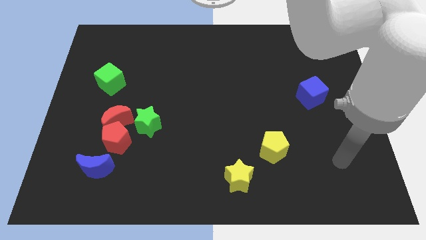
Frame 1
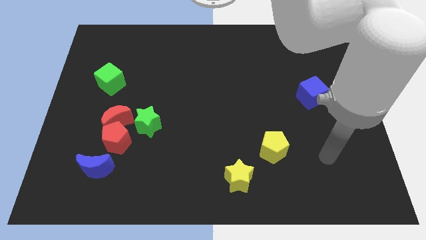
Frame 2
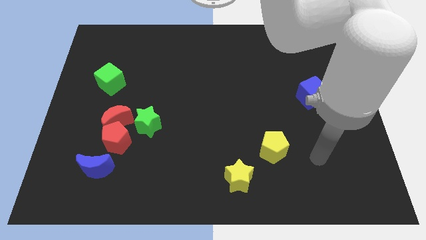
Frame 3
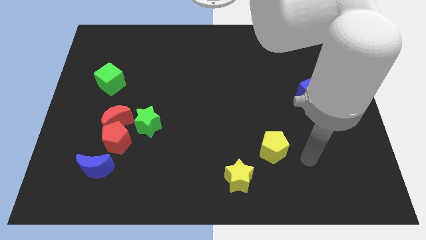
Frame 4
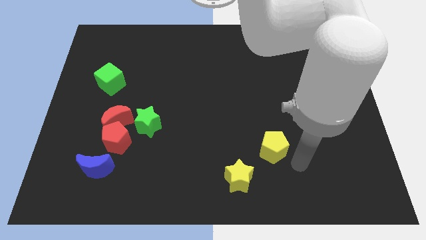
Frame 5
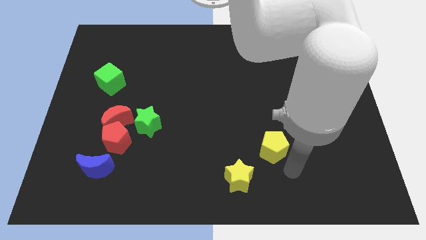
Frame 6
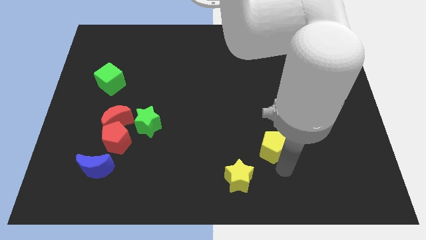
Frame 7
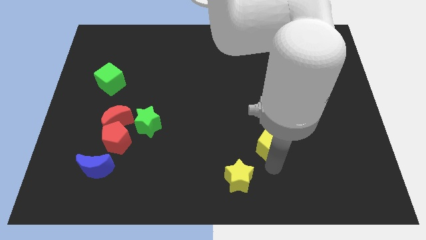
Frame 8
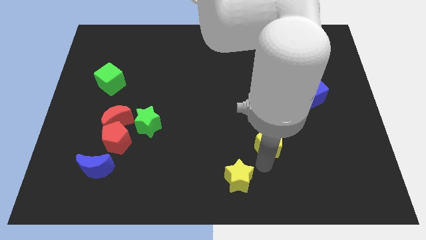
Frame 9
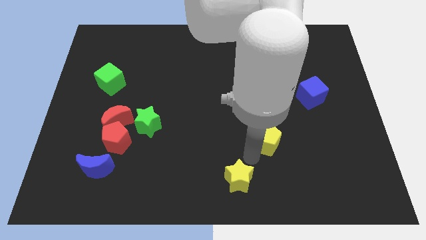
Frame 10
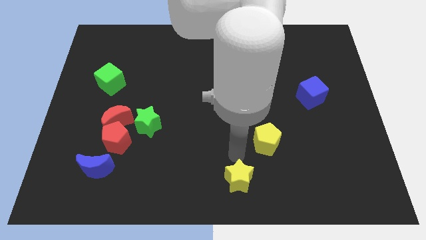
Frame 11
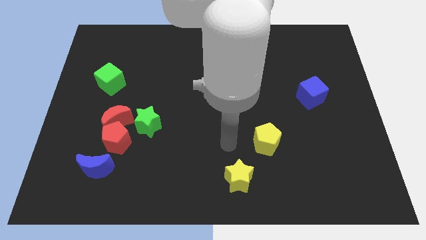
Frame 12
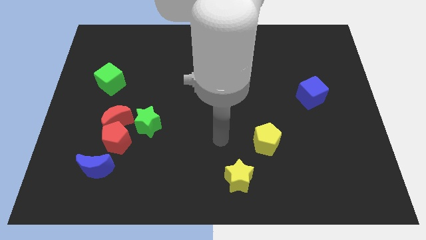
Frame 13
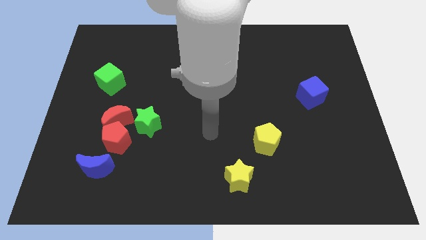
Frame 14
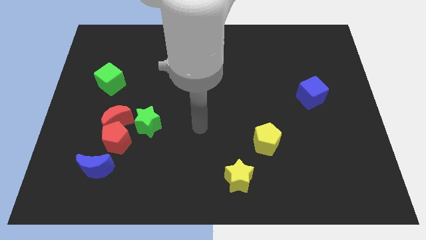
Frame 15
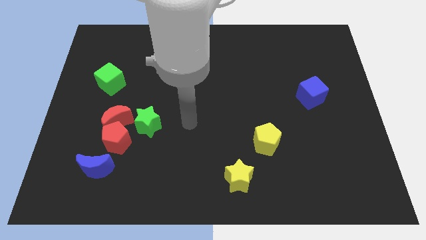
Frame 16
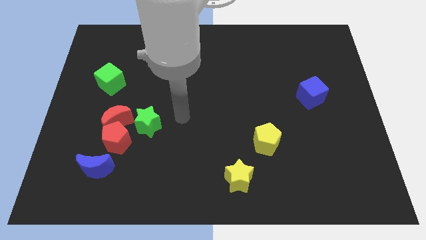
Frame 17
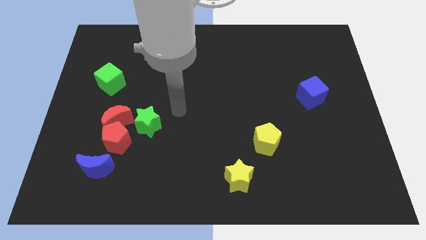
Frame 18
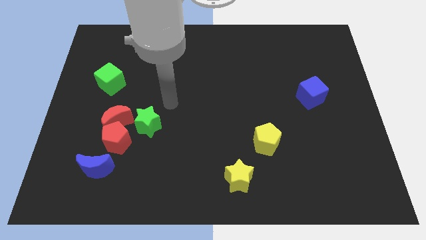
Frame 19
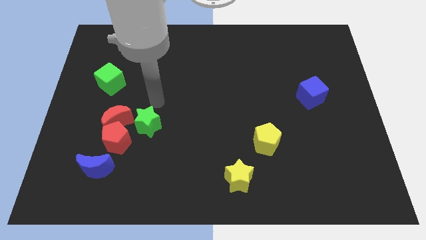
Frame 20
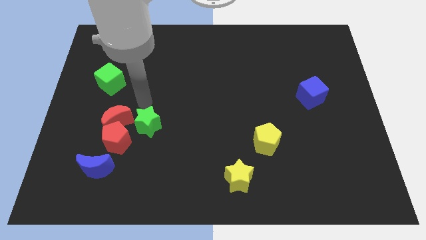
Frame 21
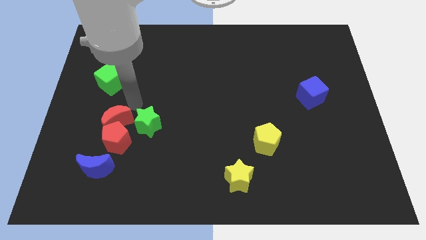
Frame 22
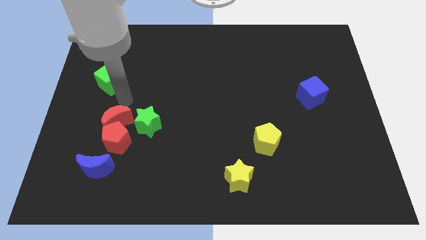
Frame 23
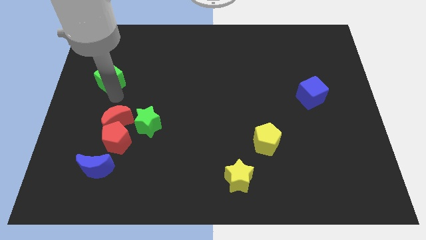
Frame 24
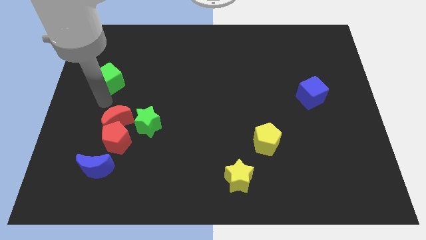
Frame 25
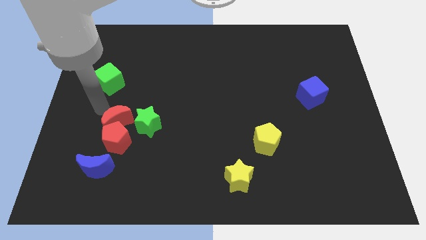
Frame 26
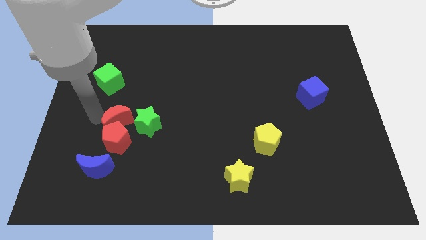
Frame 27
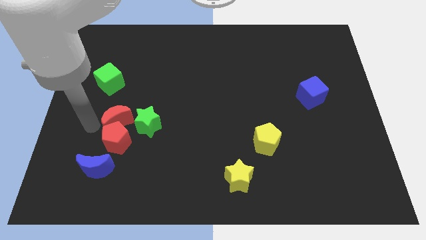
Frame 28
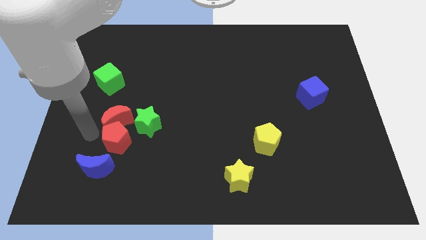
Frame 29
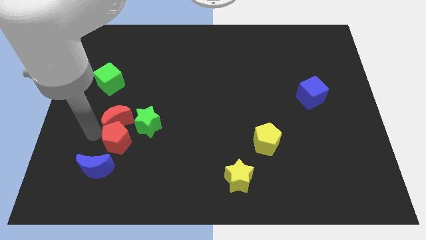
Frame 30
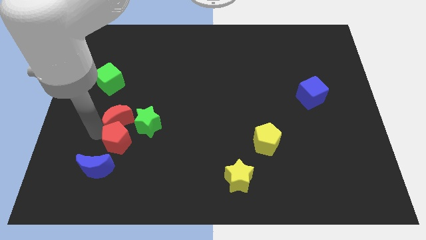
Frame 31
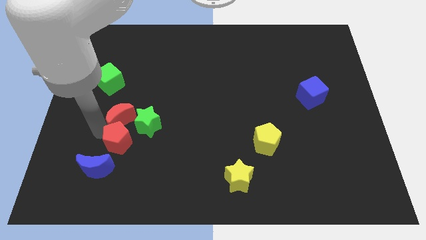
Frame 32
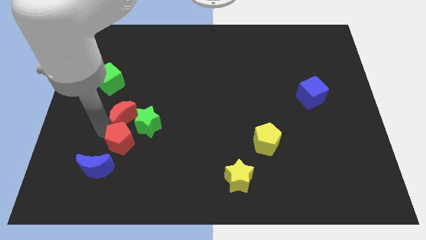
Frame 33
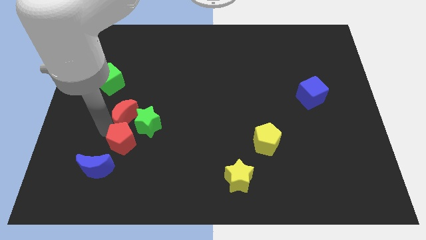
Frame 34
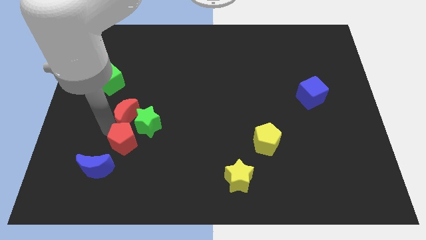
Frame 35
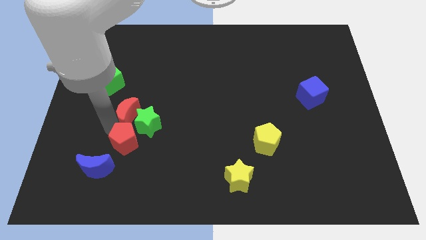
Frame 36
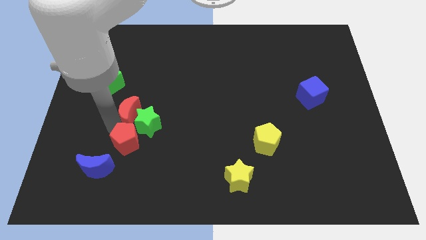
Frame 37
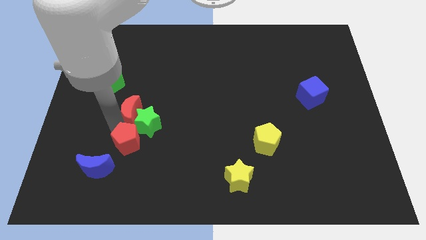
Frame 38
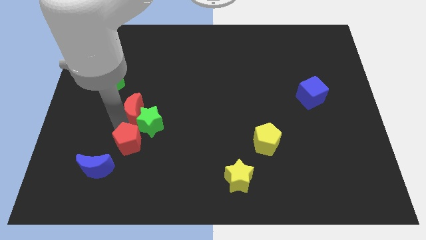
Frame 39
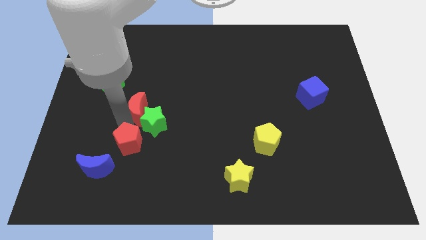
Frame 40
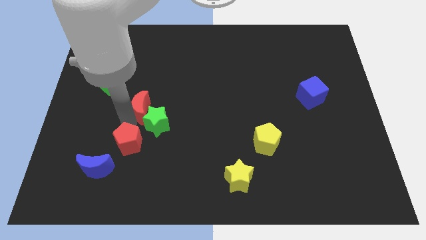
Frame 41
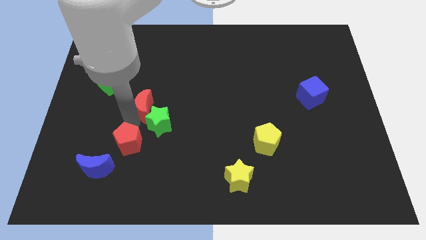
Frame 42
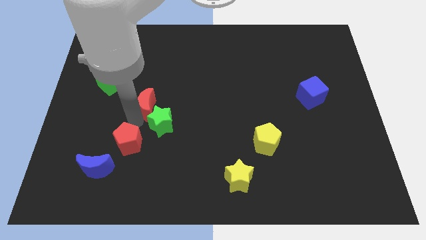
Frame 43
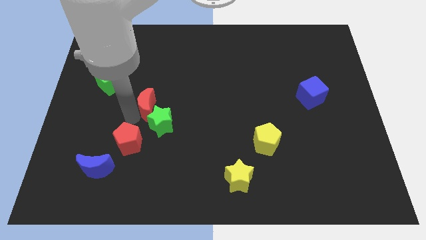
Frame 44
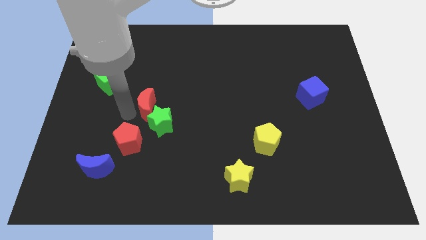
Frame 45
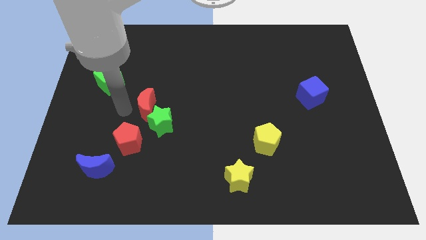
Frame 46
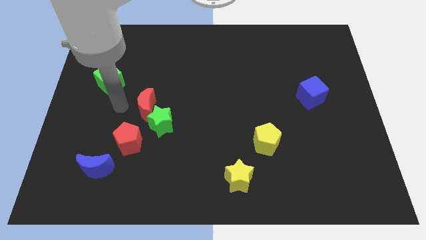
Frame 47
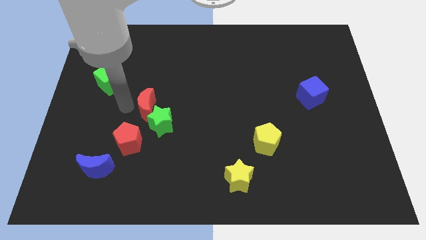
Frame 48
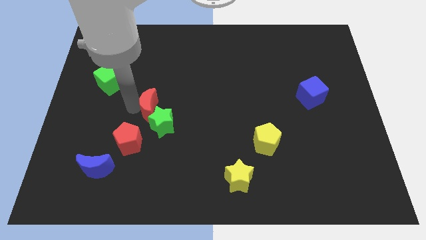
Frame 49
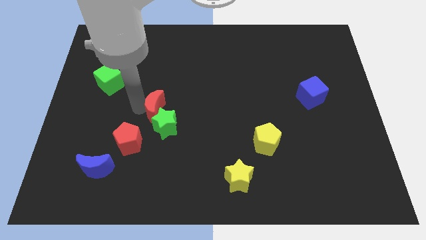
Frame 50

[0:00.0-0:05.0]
push the red moon to the right slightly

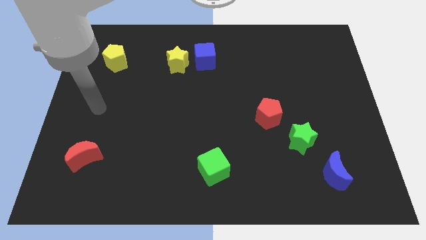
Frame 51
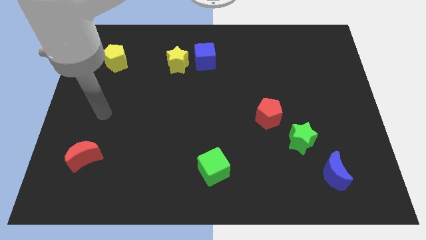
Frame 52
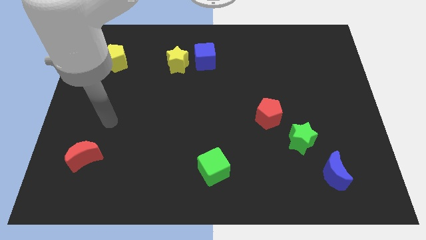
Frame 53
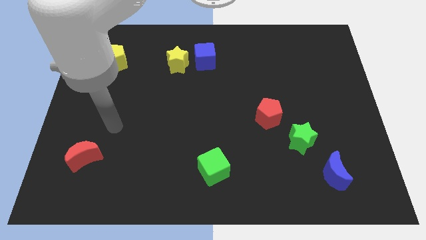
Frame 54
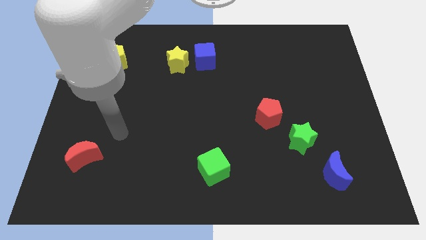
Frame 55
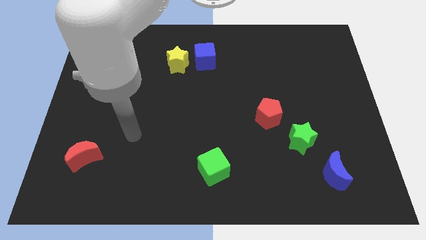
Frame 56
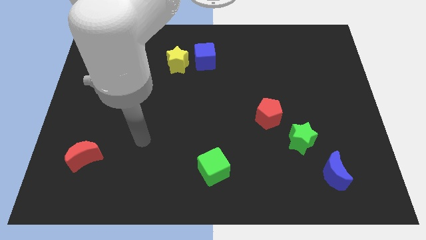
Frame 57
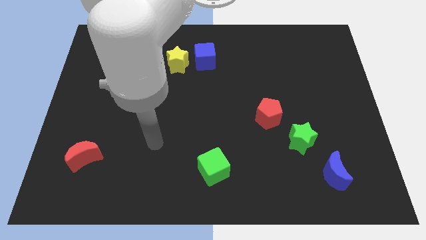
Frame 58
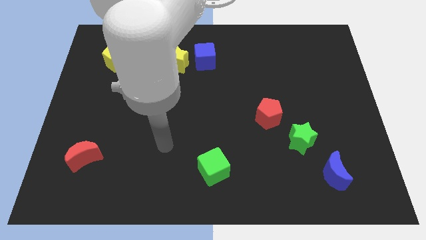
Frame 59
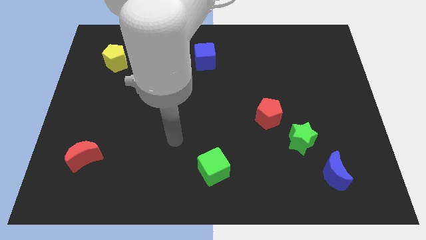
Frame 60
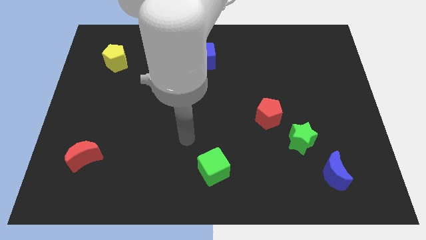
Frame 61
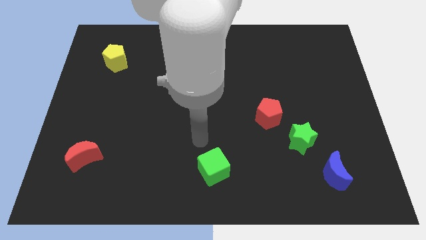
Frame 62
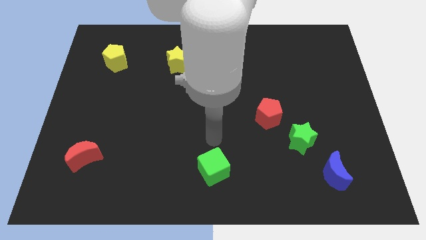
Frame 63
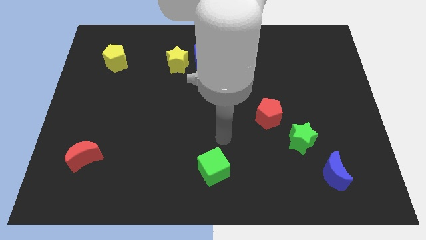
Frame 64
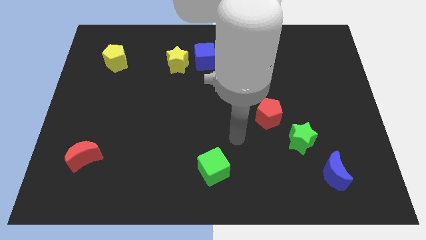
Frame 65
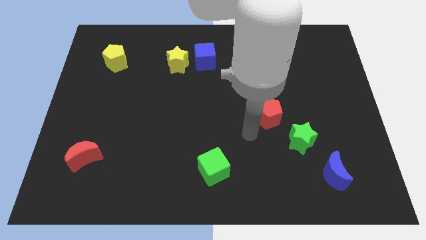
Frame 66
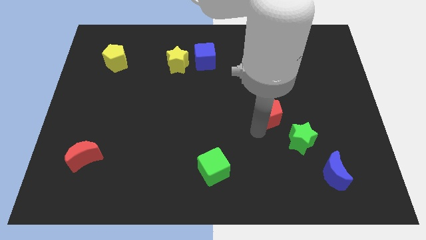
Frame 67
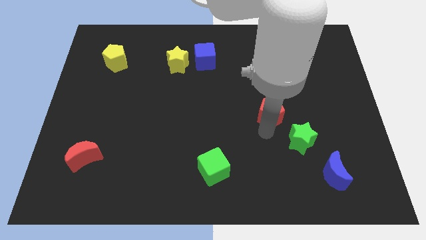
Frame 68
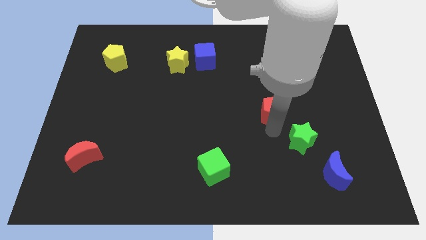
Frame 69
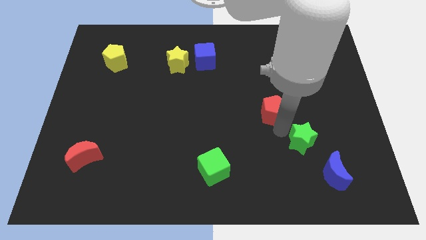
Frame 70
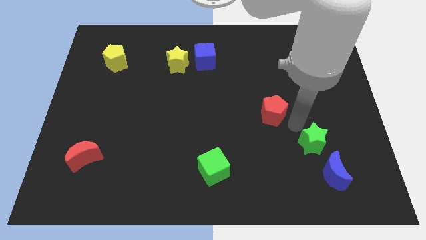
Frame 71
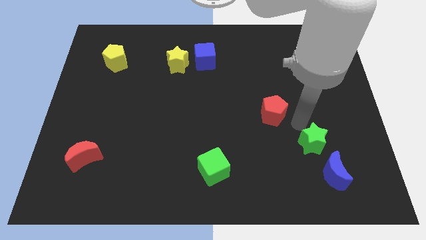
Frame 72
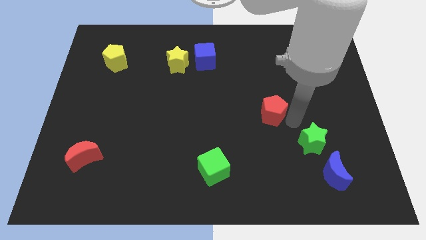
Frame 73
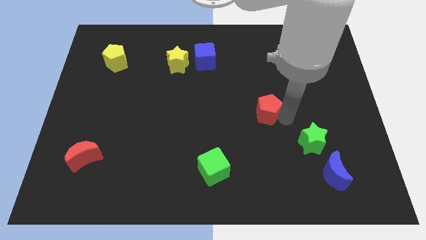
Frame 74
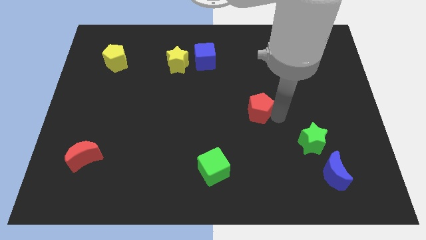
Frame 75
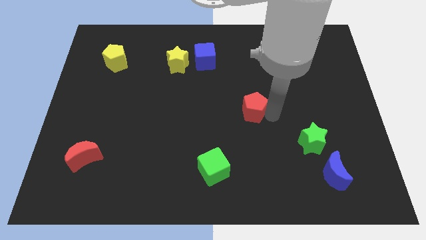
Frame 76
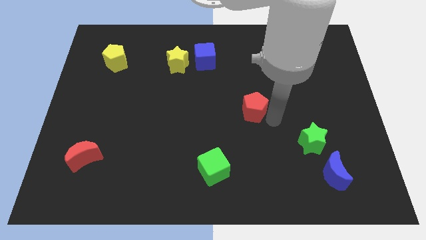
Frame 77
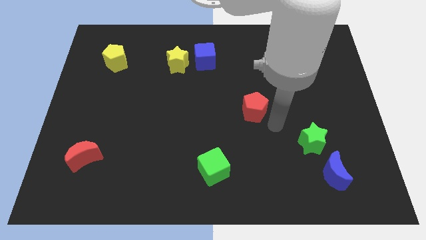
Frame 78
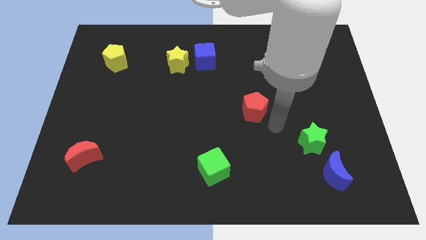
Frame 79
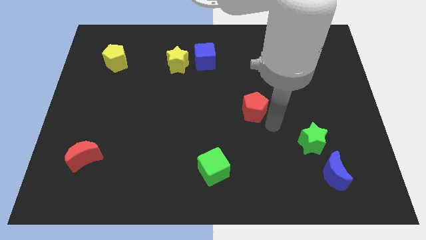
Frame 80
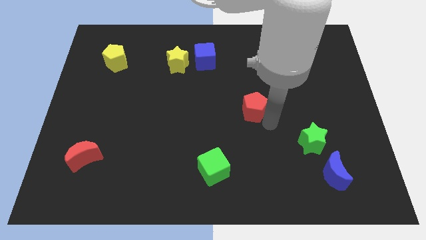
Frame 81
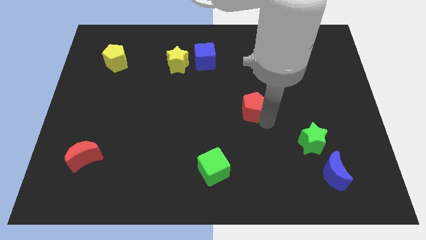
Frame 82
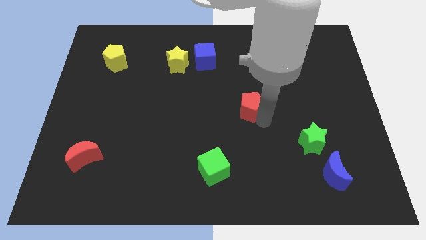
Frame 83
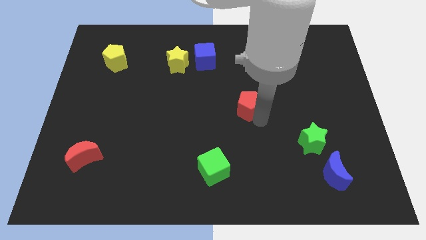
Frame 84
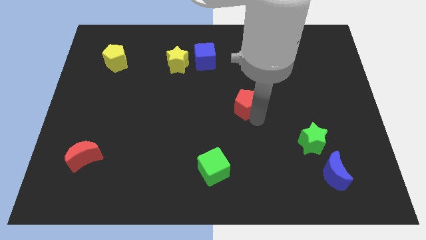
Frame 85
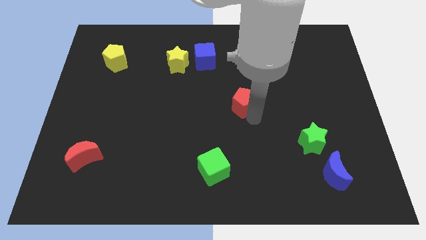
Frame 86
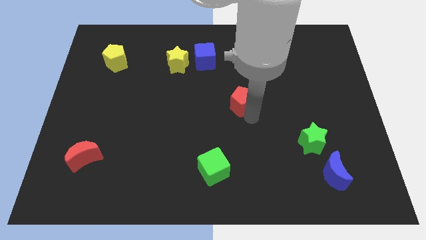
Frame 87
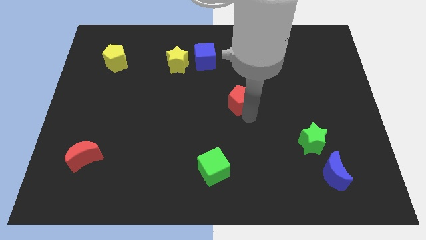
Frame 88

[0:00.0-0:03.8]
push the red pentagon a little bit diagonally up and to the left
